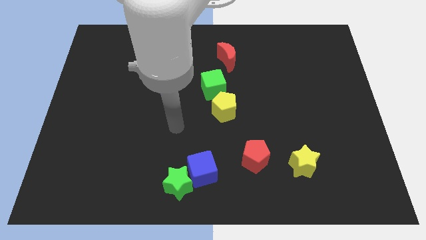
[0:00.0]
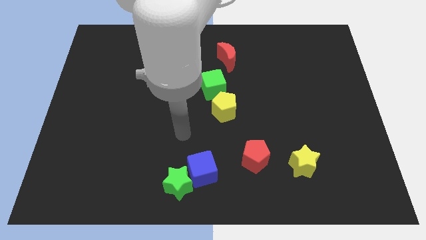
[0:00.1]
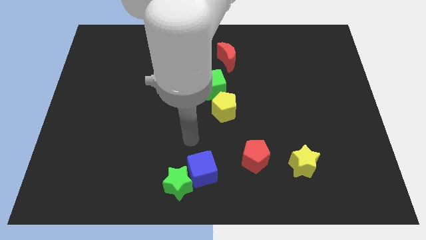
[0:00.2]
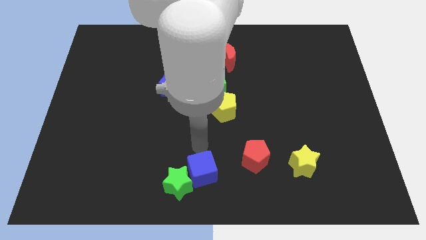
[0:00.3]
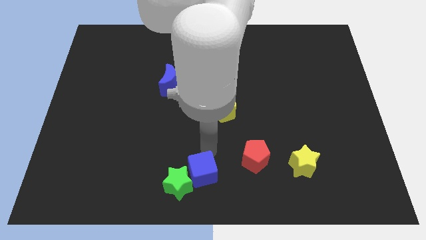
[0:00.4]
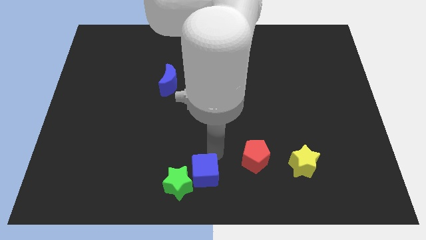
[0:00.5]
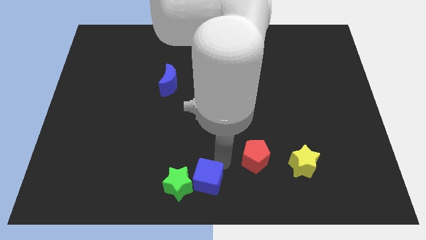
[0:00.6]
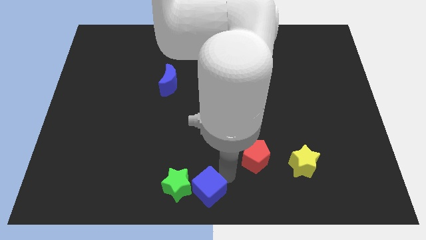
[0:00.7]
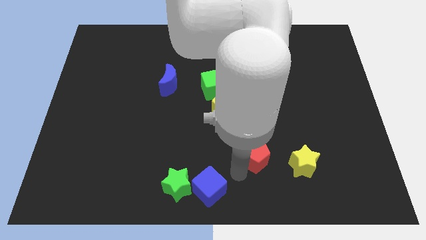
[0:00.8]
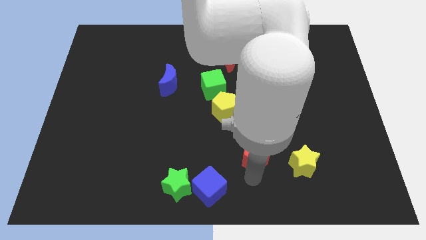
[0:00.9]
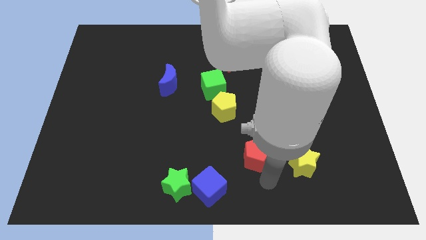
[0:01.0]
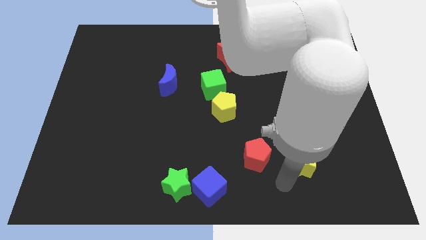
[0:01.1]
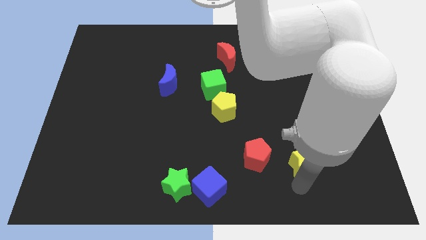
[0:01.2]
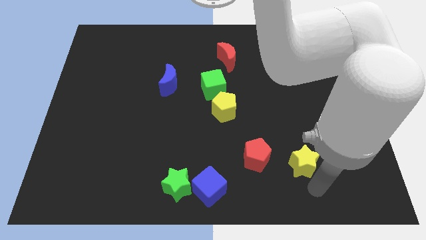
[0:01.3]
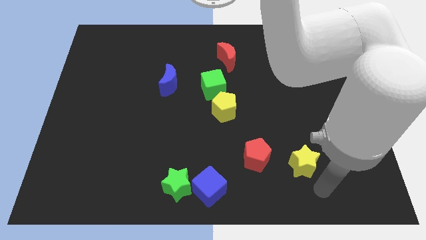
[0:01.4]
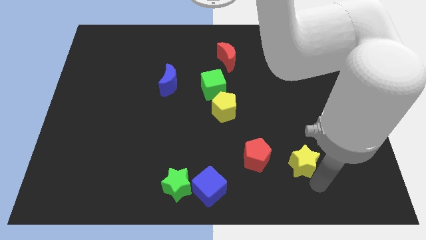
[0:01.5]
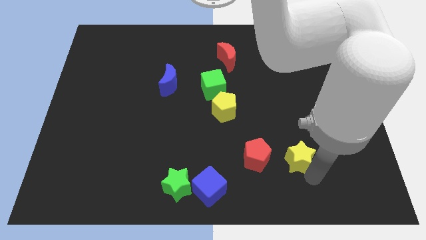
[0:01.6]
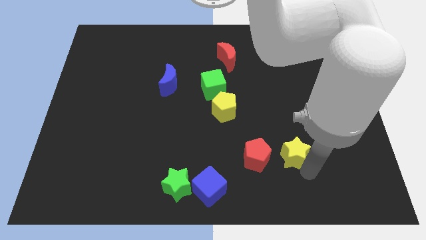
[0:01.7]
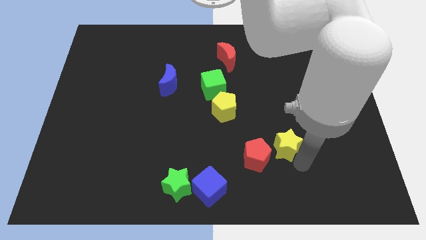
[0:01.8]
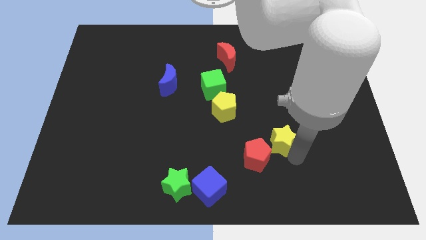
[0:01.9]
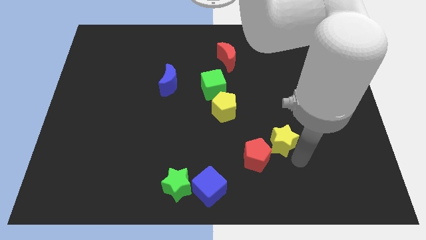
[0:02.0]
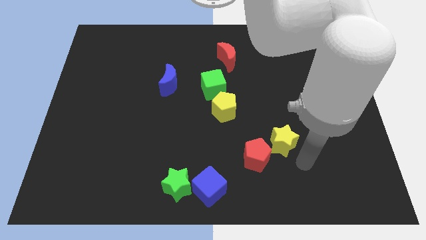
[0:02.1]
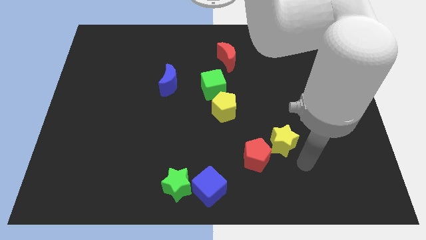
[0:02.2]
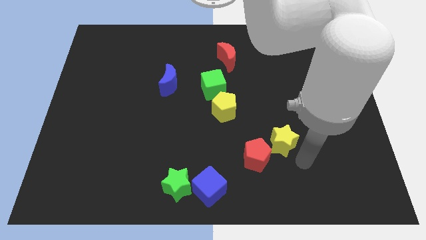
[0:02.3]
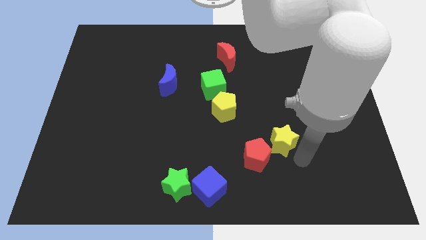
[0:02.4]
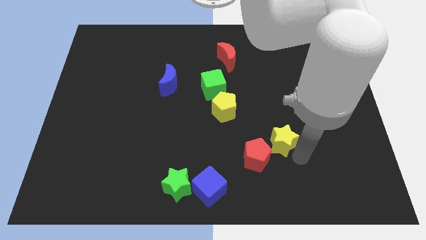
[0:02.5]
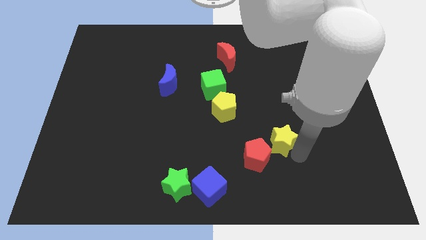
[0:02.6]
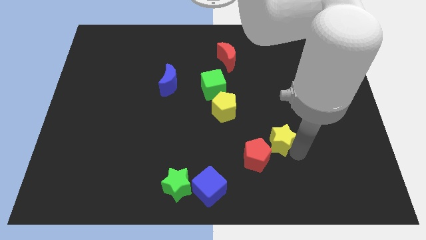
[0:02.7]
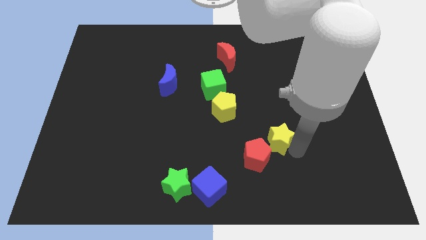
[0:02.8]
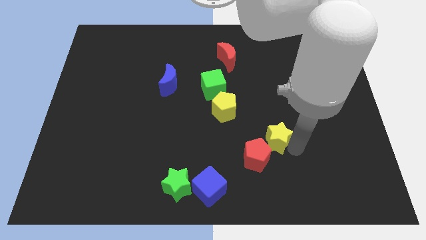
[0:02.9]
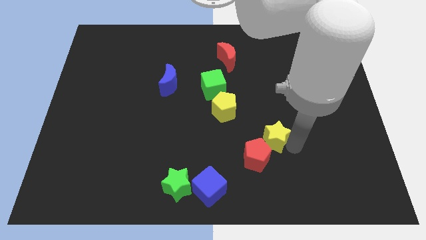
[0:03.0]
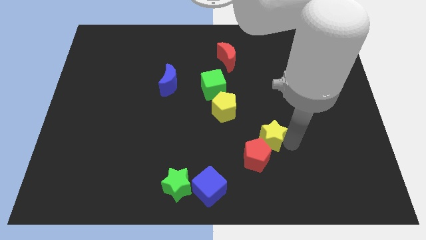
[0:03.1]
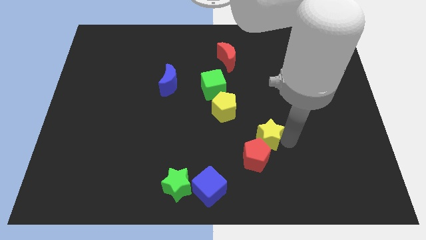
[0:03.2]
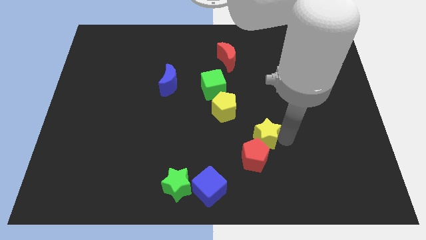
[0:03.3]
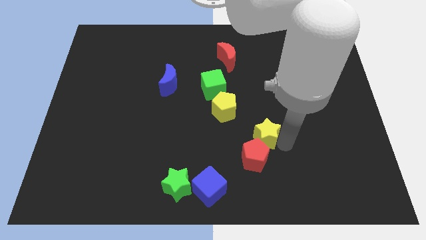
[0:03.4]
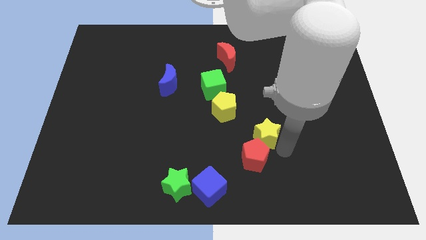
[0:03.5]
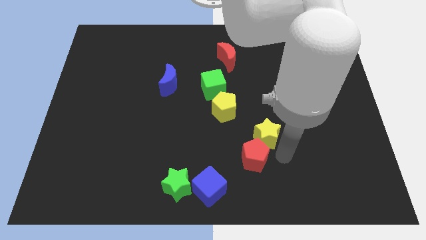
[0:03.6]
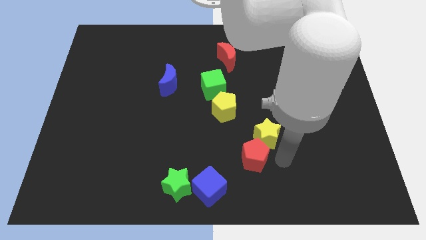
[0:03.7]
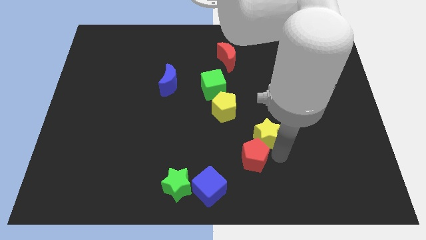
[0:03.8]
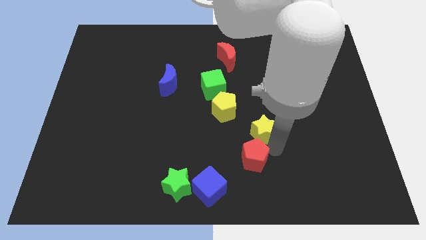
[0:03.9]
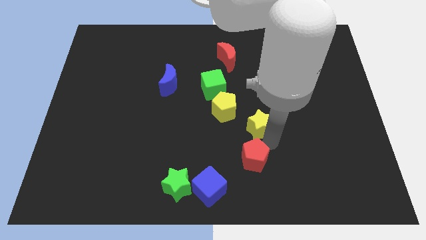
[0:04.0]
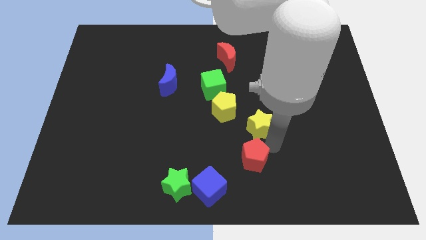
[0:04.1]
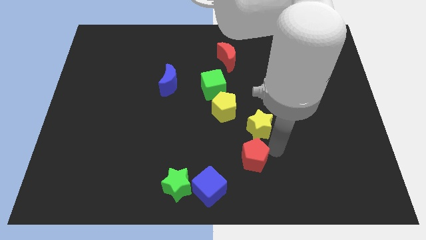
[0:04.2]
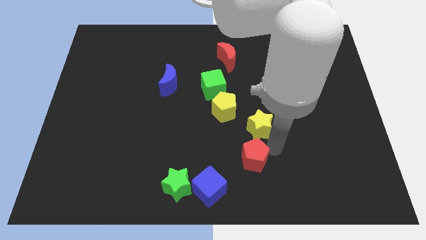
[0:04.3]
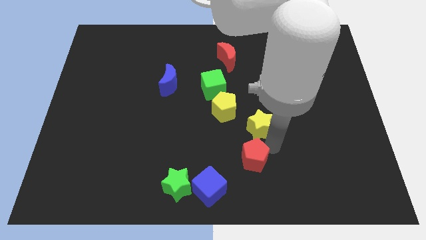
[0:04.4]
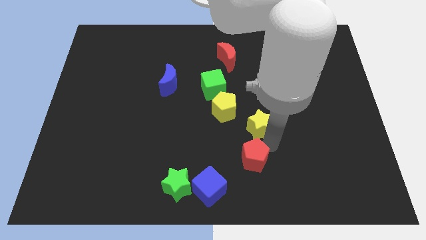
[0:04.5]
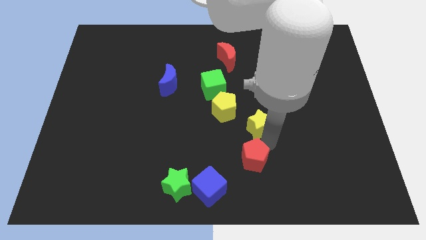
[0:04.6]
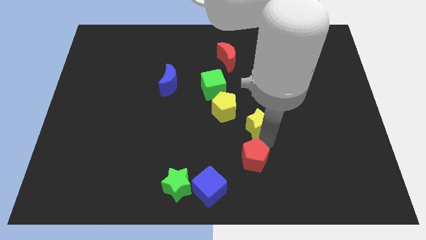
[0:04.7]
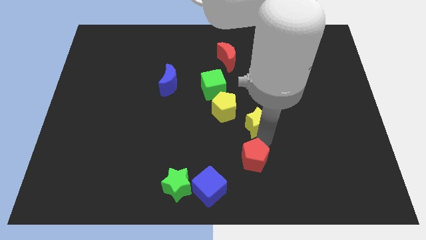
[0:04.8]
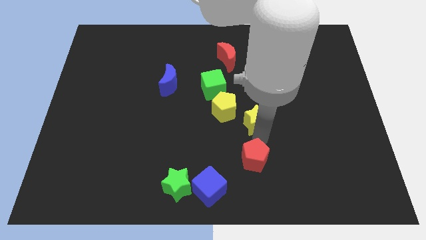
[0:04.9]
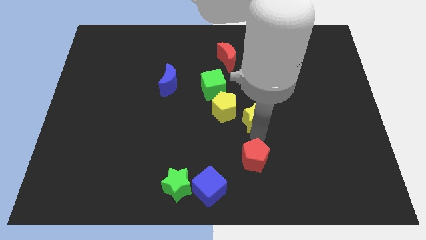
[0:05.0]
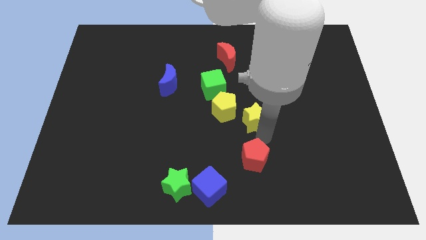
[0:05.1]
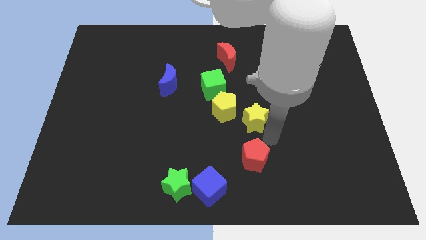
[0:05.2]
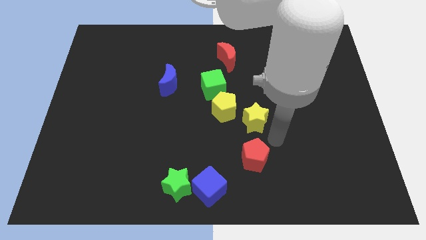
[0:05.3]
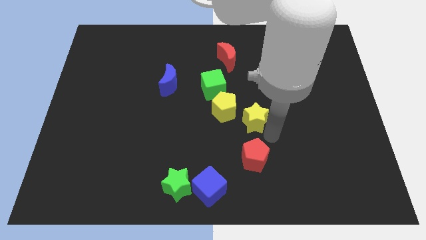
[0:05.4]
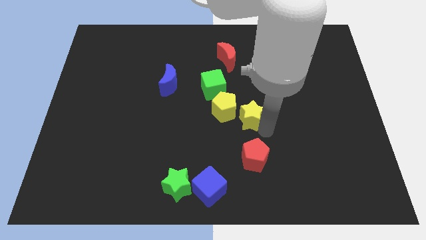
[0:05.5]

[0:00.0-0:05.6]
slide the yellow star to the bottom right of the green cube

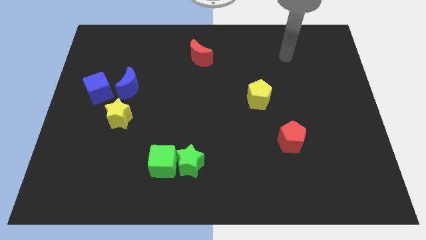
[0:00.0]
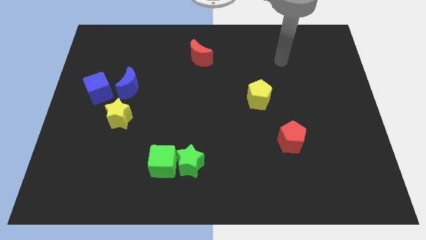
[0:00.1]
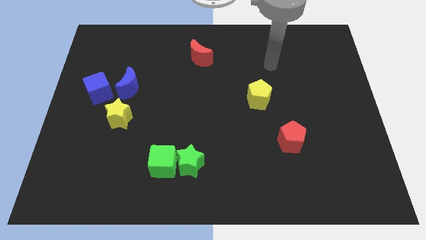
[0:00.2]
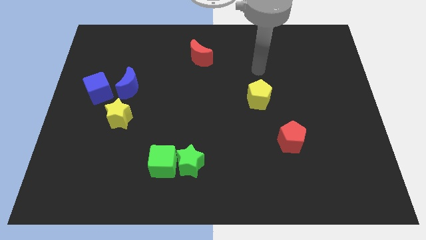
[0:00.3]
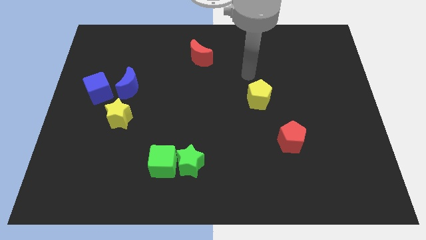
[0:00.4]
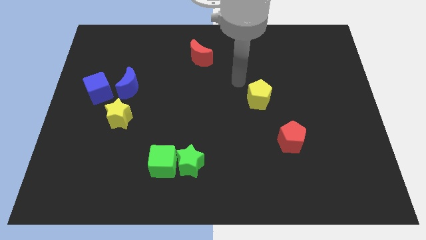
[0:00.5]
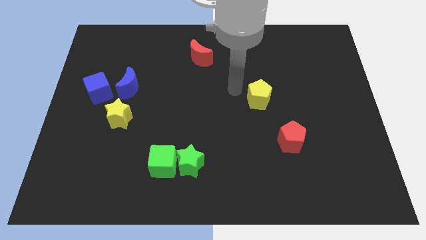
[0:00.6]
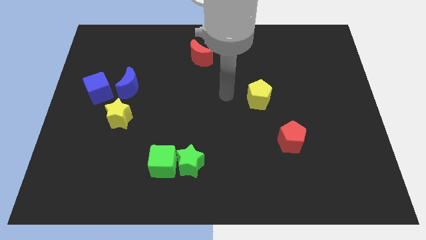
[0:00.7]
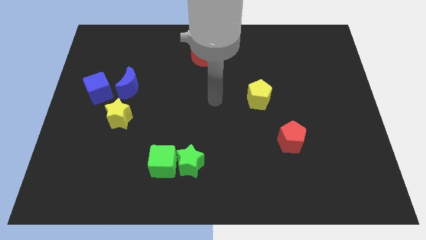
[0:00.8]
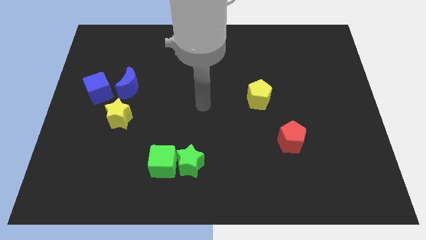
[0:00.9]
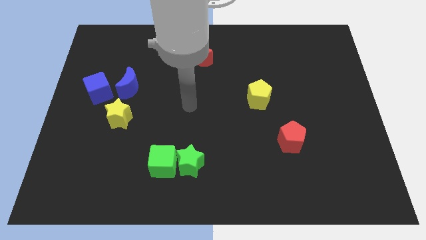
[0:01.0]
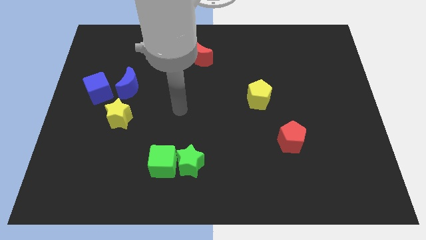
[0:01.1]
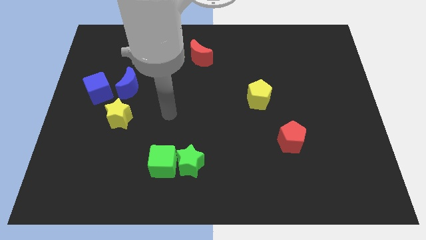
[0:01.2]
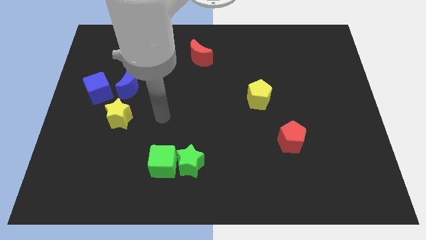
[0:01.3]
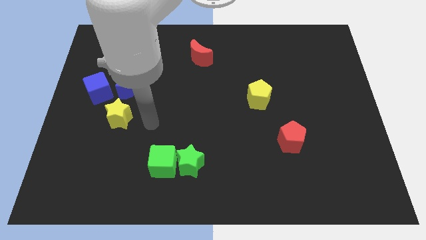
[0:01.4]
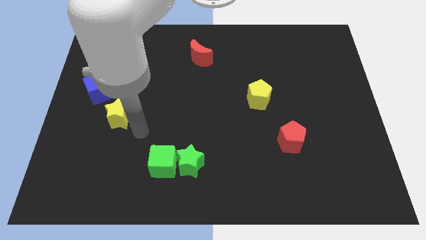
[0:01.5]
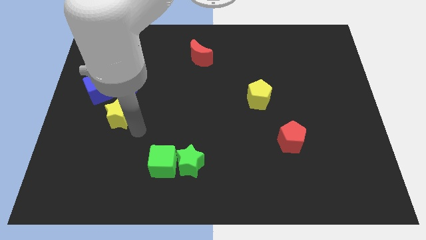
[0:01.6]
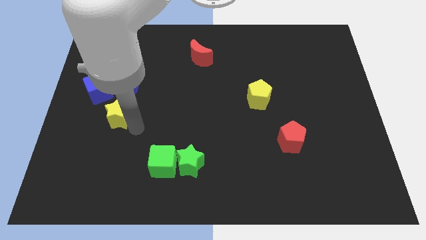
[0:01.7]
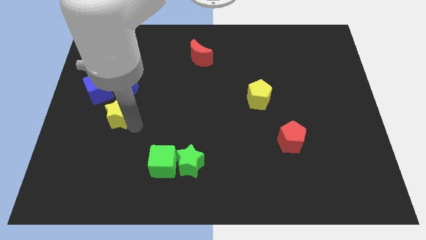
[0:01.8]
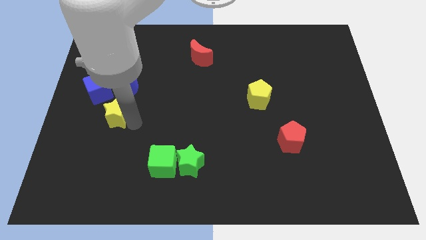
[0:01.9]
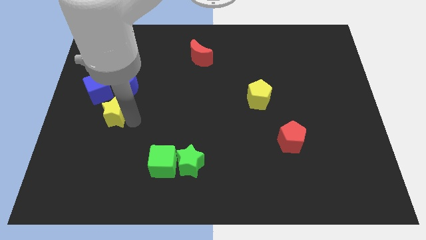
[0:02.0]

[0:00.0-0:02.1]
slide the yellow star to the bottom left side of the blue moon
